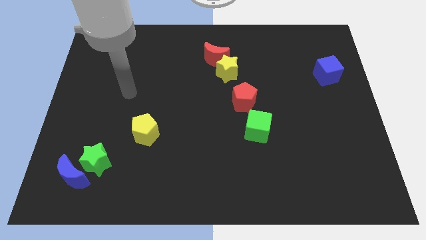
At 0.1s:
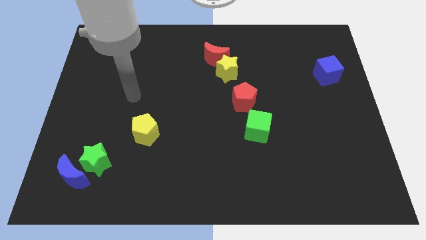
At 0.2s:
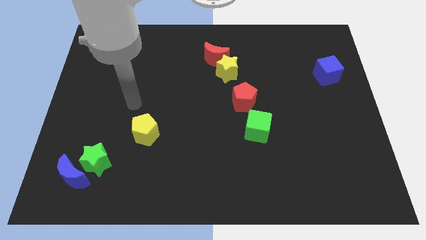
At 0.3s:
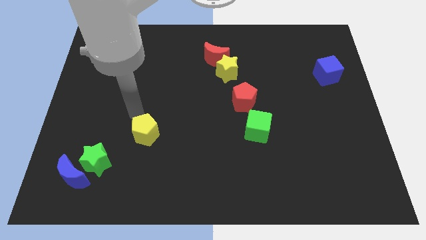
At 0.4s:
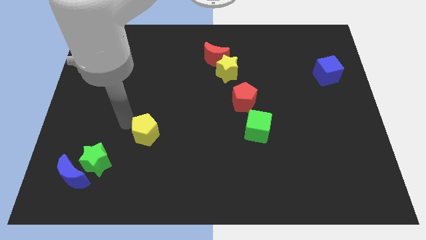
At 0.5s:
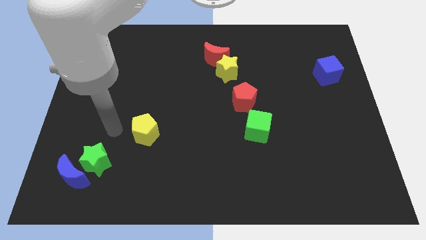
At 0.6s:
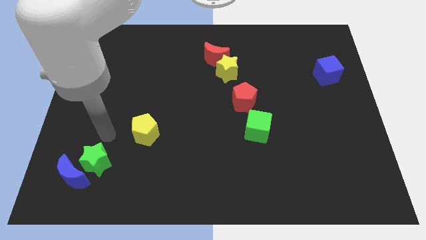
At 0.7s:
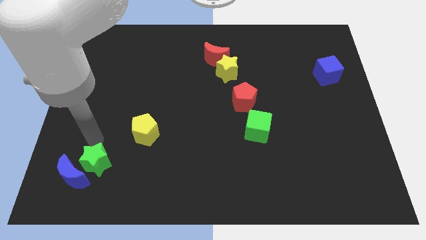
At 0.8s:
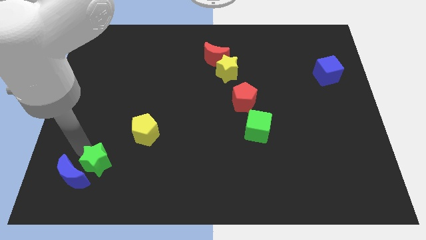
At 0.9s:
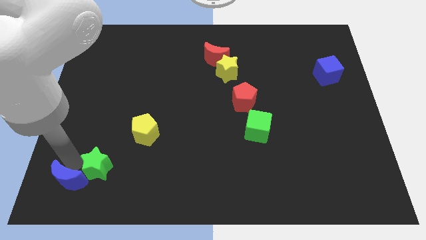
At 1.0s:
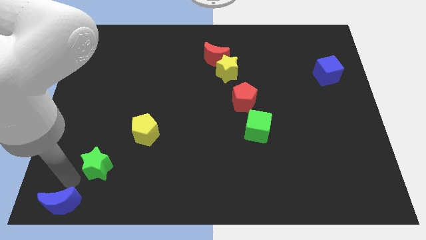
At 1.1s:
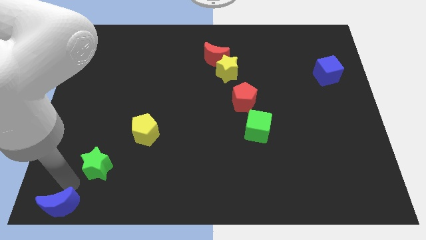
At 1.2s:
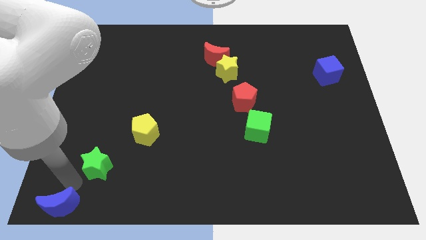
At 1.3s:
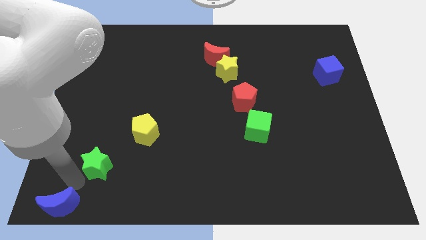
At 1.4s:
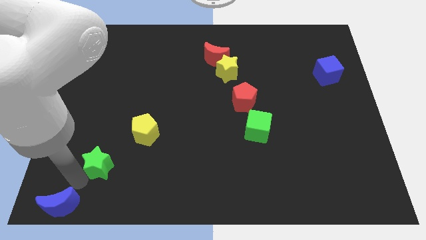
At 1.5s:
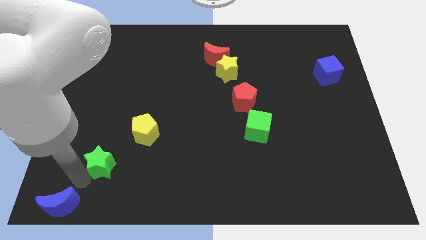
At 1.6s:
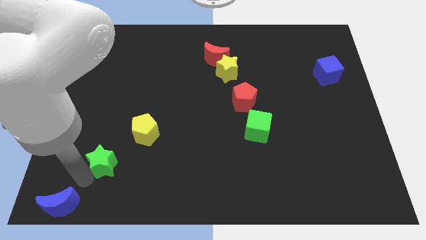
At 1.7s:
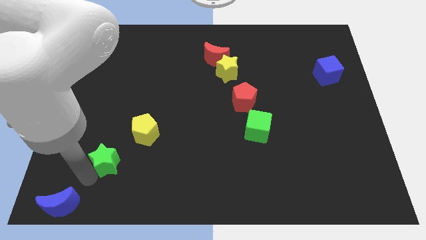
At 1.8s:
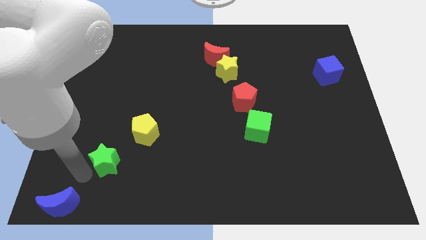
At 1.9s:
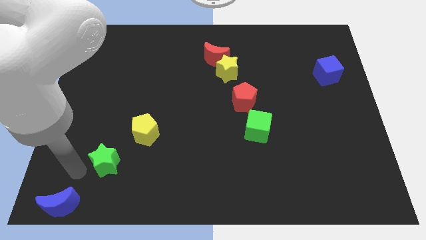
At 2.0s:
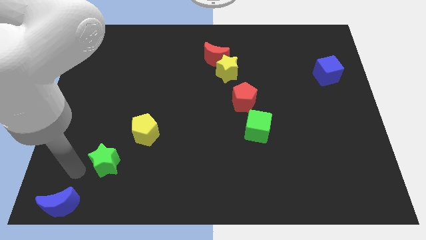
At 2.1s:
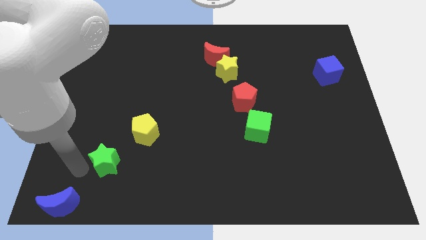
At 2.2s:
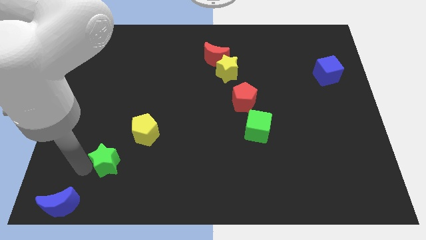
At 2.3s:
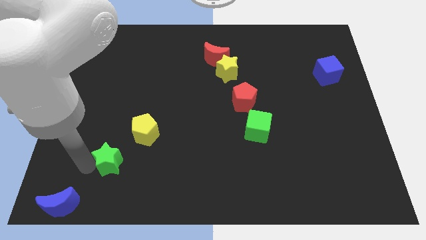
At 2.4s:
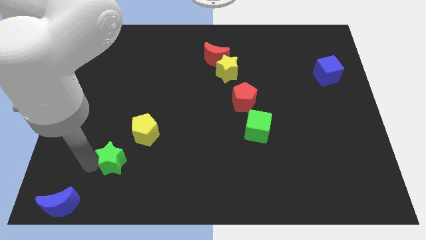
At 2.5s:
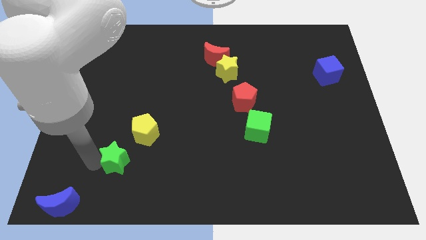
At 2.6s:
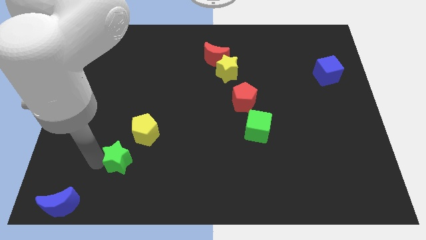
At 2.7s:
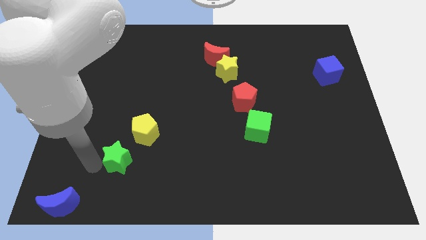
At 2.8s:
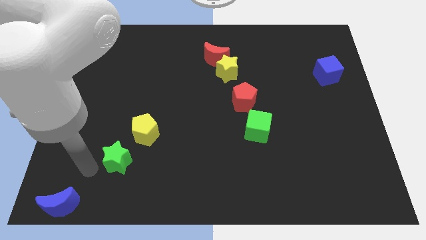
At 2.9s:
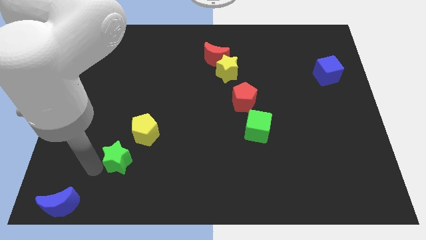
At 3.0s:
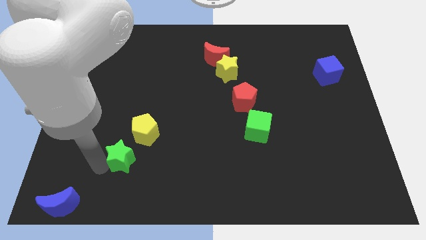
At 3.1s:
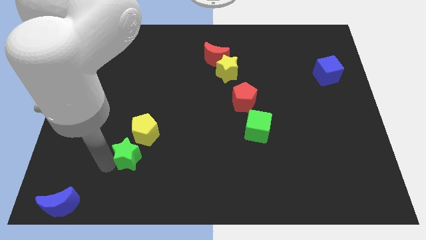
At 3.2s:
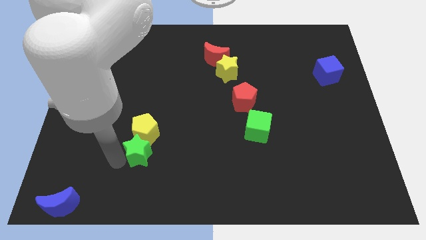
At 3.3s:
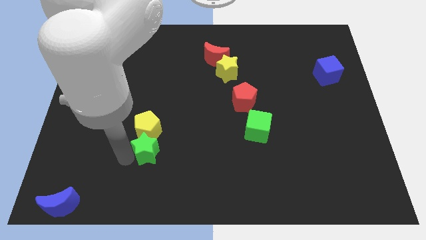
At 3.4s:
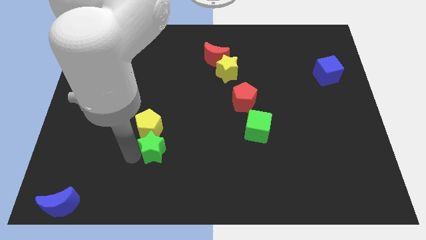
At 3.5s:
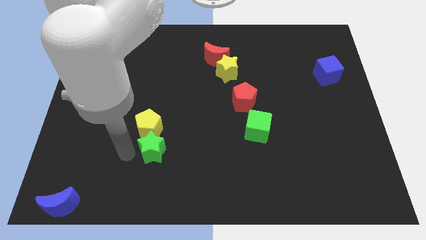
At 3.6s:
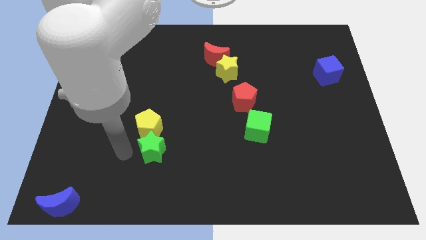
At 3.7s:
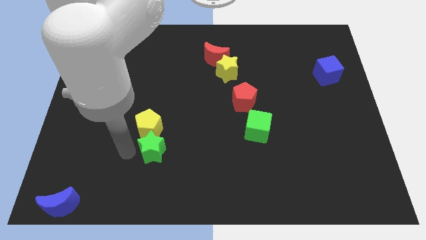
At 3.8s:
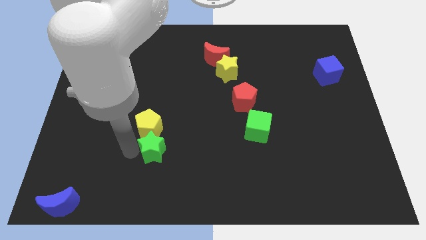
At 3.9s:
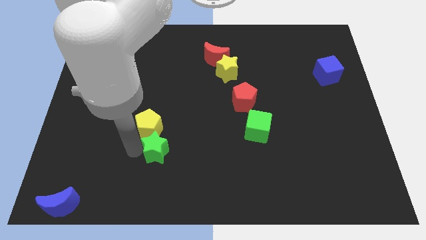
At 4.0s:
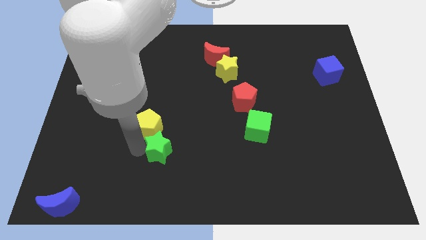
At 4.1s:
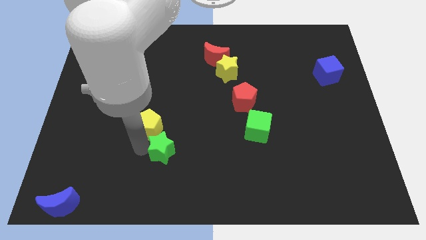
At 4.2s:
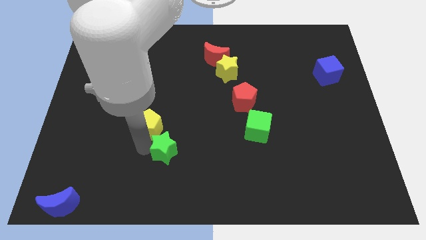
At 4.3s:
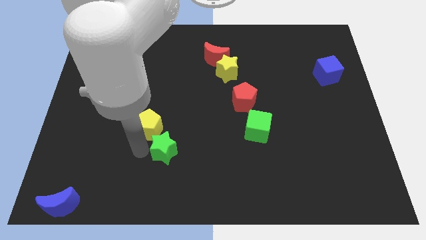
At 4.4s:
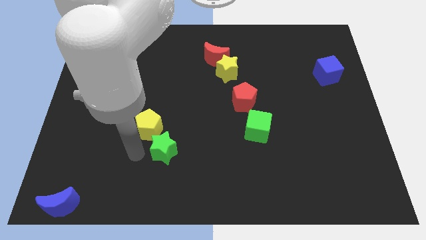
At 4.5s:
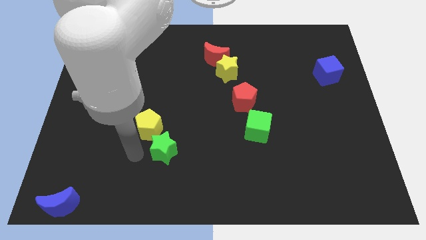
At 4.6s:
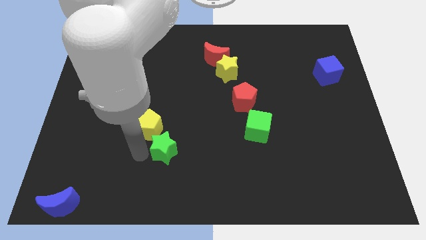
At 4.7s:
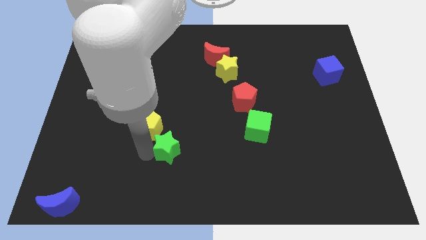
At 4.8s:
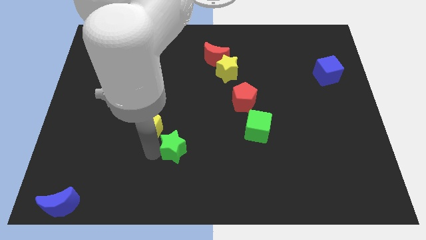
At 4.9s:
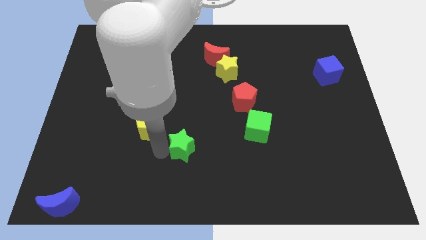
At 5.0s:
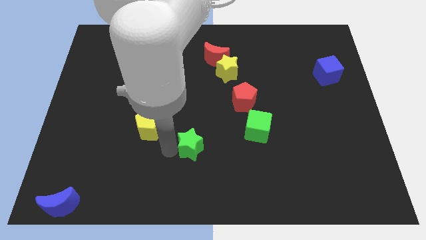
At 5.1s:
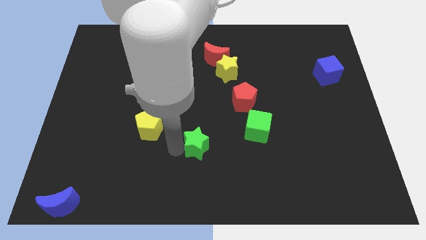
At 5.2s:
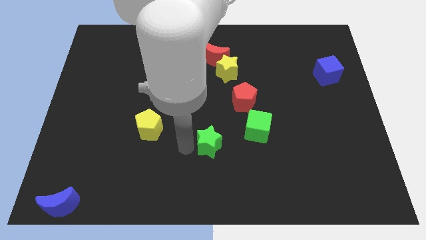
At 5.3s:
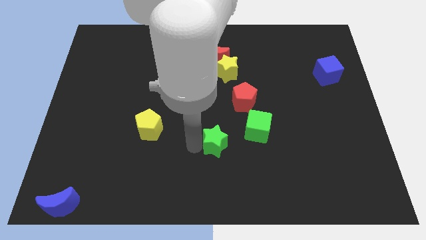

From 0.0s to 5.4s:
push the green star to the bottom left of the green cube
